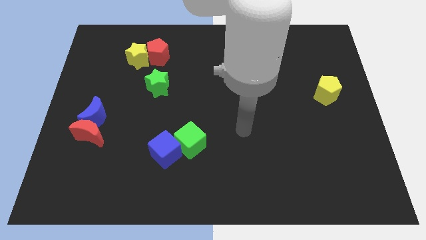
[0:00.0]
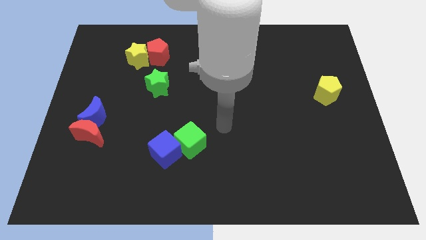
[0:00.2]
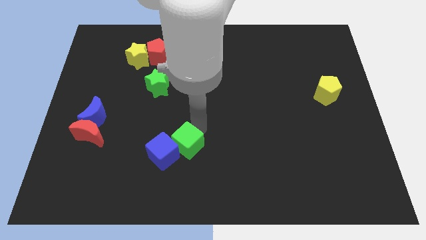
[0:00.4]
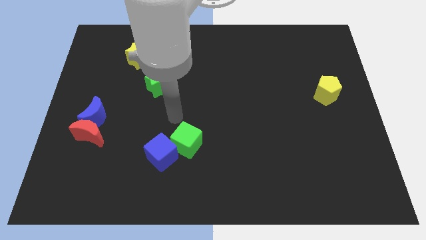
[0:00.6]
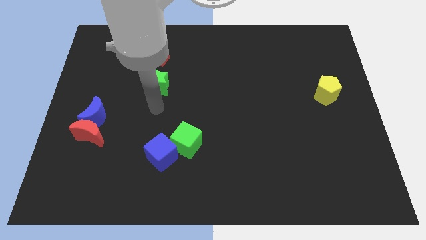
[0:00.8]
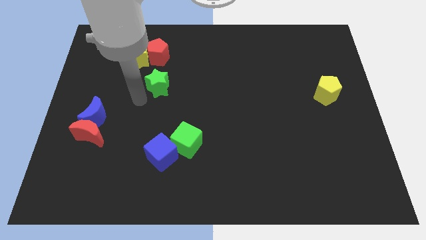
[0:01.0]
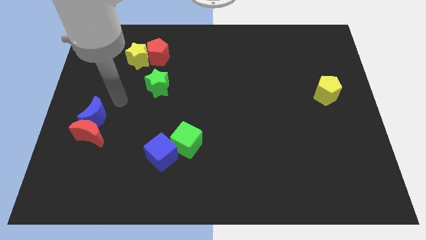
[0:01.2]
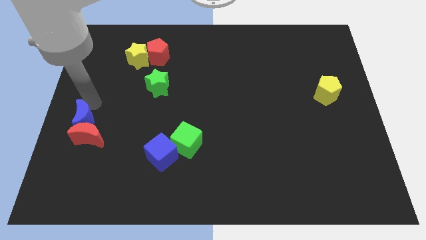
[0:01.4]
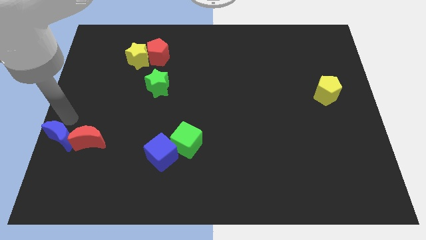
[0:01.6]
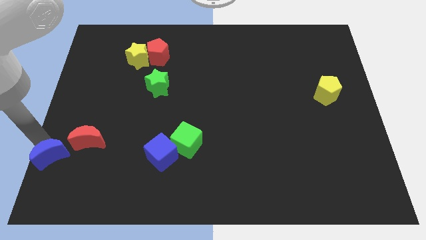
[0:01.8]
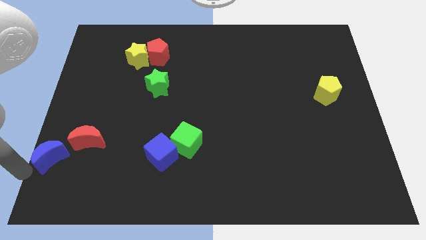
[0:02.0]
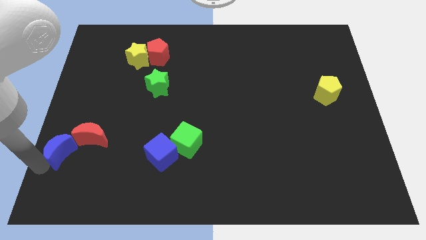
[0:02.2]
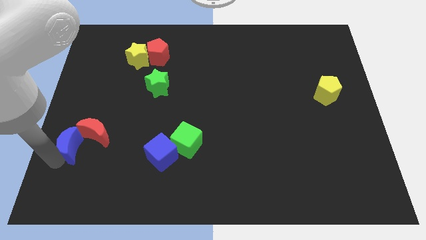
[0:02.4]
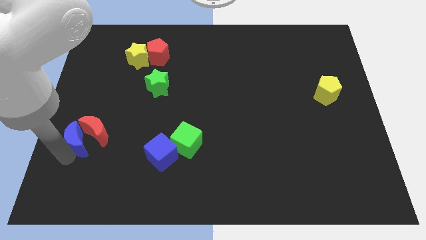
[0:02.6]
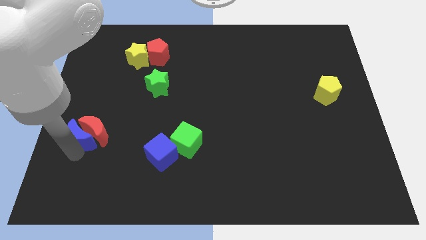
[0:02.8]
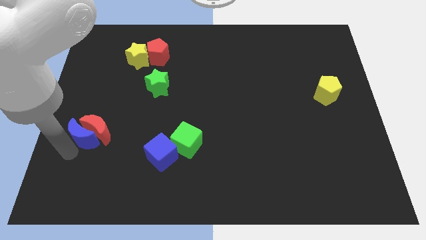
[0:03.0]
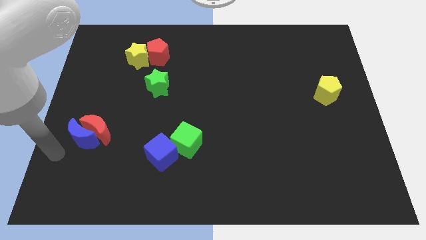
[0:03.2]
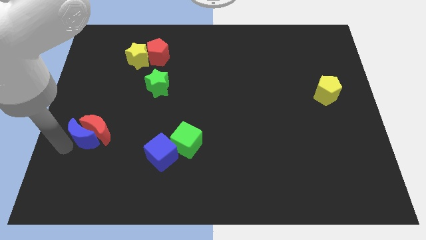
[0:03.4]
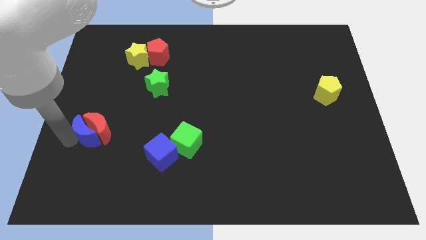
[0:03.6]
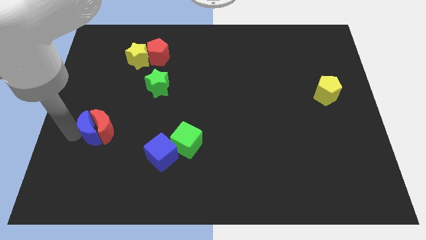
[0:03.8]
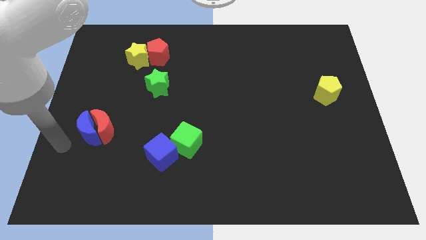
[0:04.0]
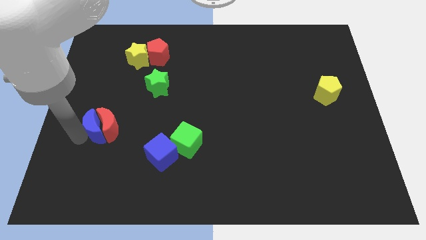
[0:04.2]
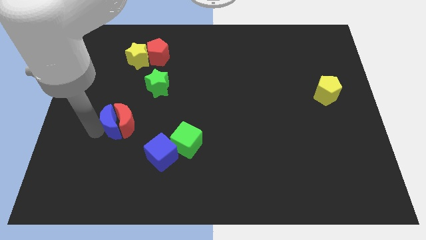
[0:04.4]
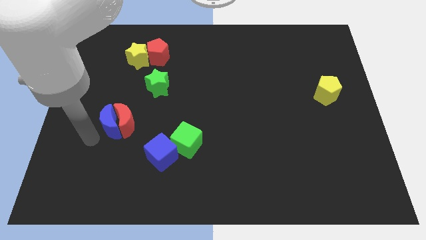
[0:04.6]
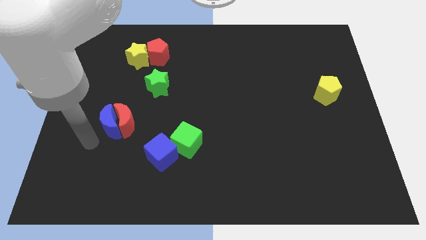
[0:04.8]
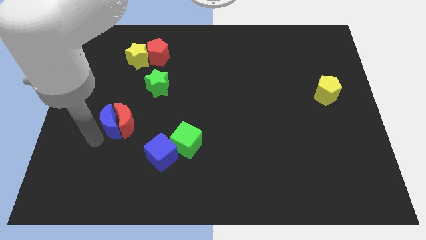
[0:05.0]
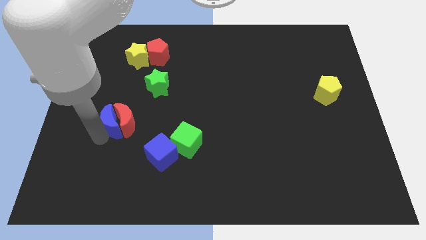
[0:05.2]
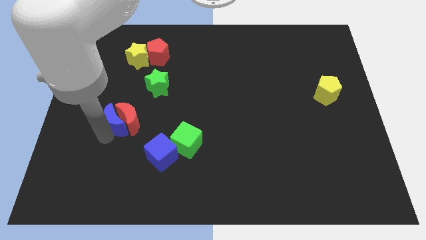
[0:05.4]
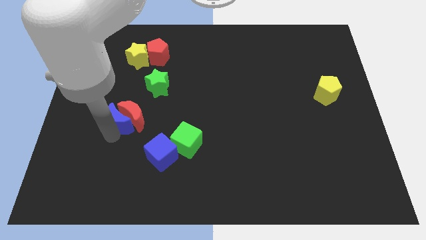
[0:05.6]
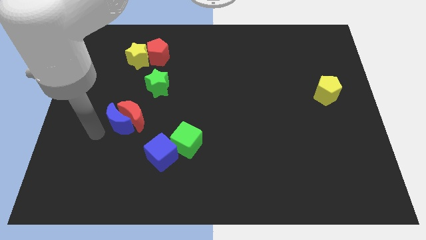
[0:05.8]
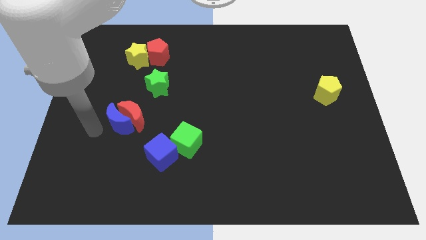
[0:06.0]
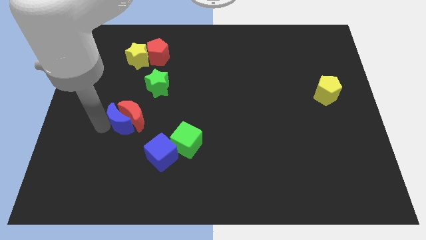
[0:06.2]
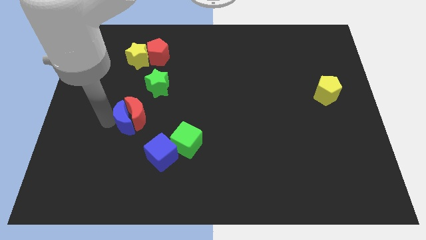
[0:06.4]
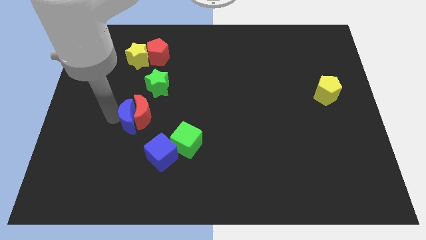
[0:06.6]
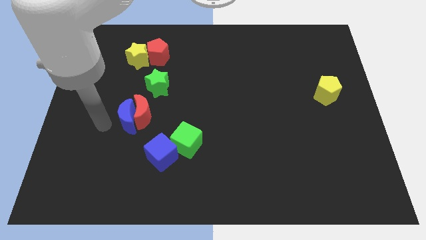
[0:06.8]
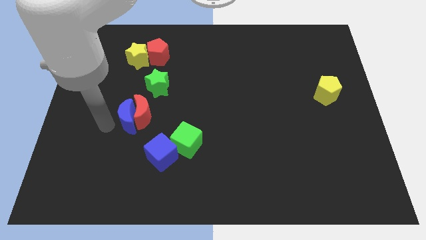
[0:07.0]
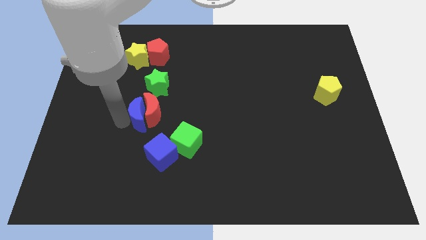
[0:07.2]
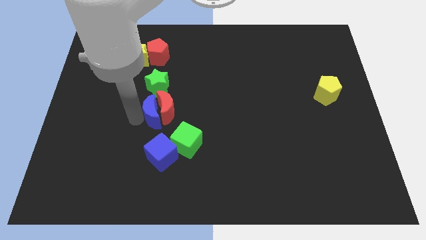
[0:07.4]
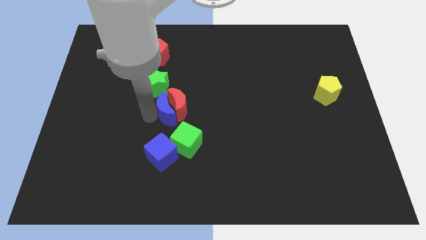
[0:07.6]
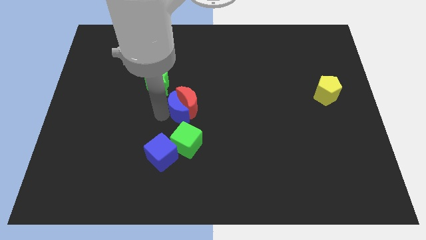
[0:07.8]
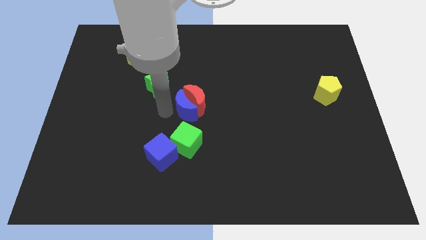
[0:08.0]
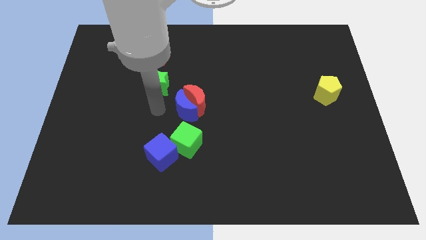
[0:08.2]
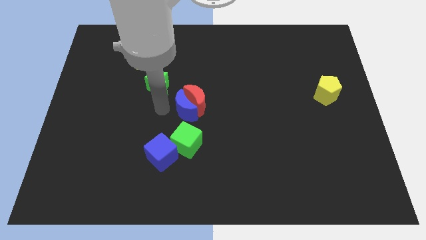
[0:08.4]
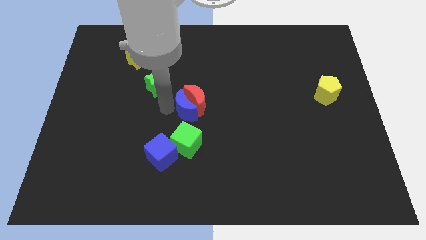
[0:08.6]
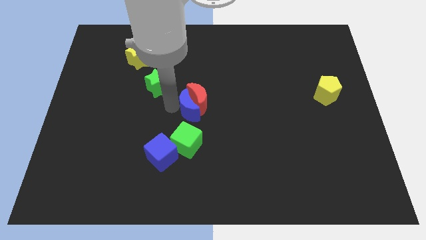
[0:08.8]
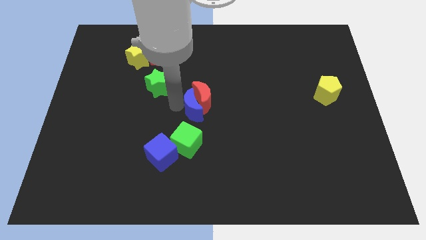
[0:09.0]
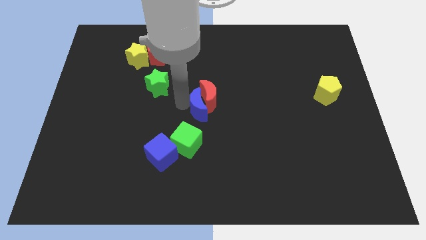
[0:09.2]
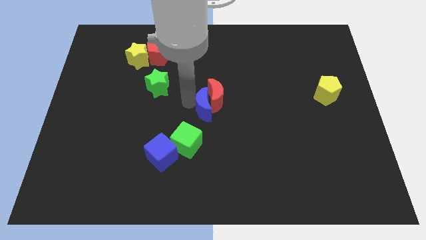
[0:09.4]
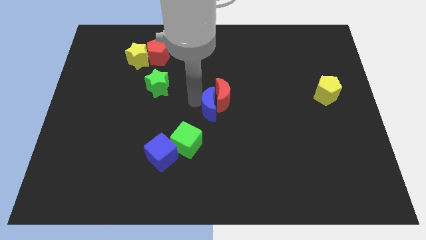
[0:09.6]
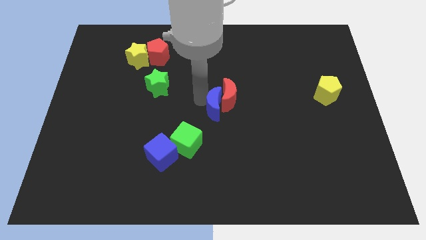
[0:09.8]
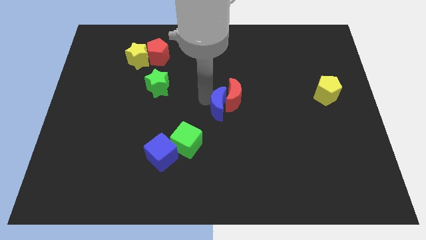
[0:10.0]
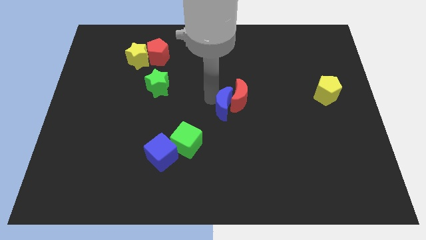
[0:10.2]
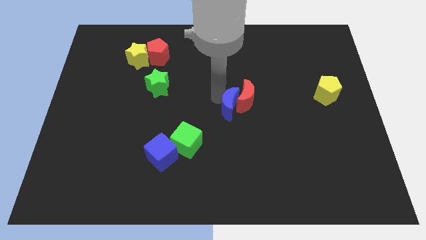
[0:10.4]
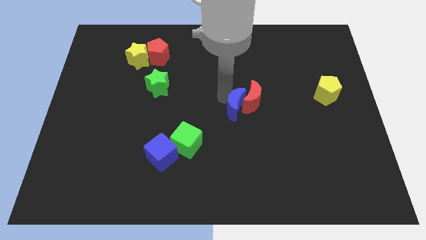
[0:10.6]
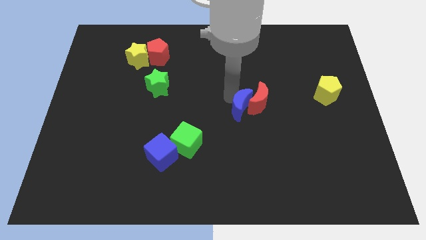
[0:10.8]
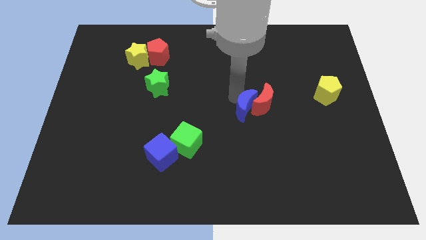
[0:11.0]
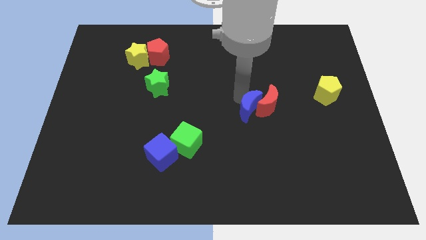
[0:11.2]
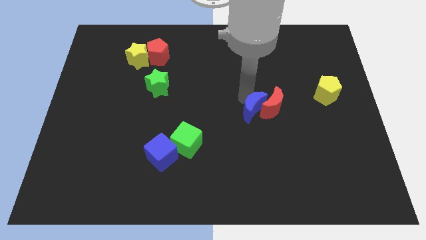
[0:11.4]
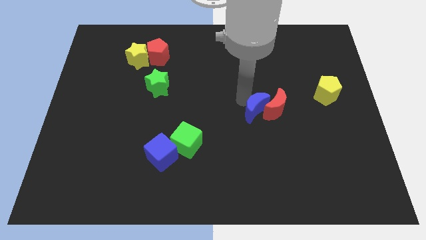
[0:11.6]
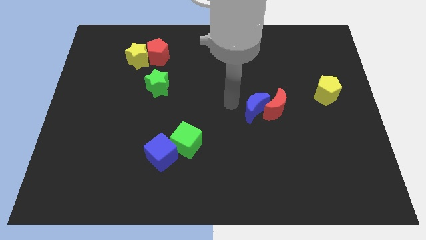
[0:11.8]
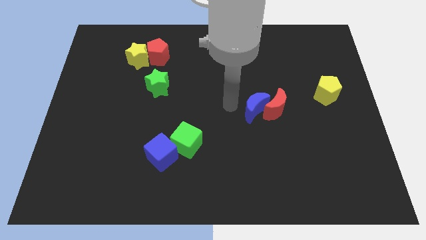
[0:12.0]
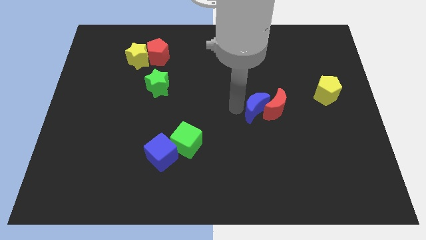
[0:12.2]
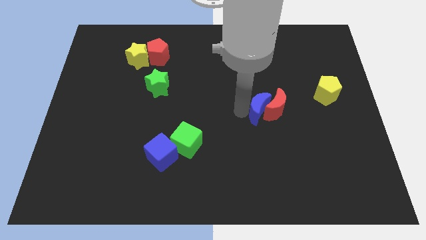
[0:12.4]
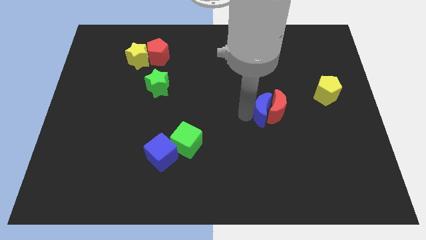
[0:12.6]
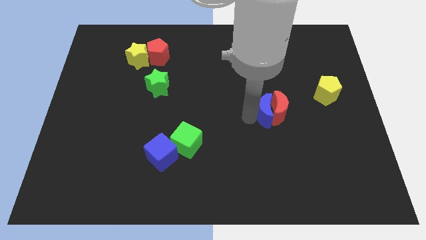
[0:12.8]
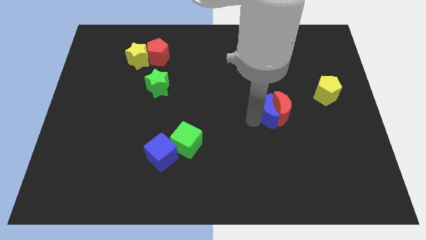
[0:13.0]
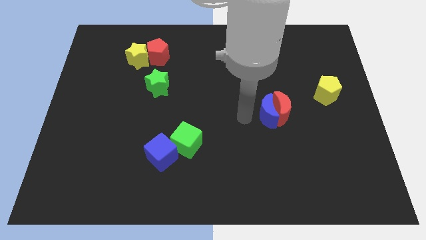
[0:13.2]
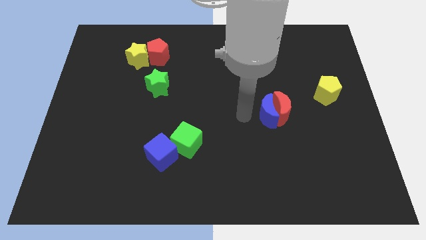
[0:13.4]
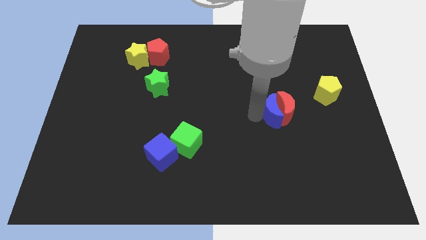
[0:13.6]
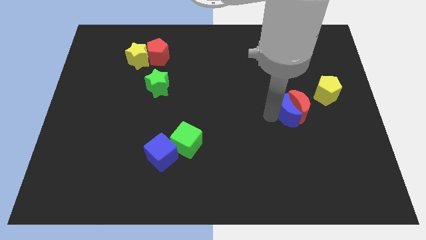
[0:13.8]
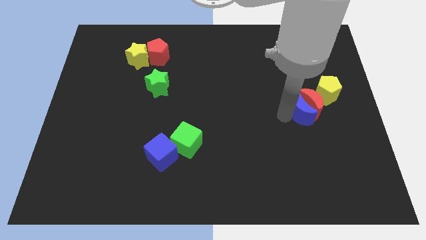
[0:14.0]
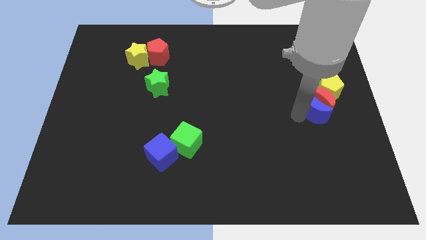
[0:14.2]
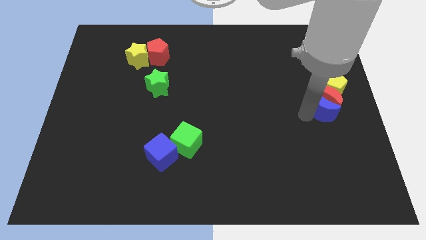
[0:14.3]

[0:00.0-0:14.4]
put the blue moon to the right side of the board
